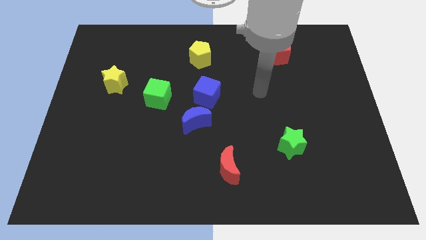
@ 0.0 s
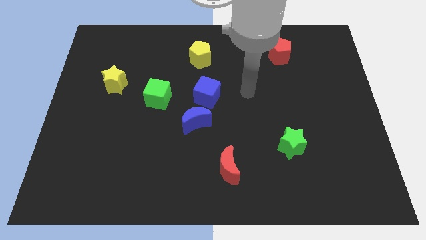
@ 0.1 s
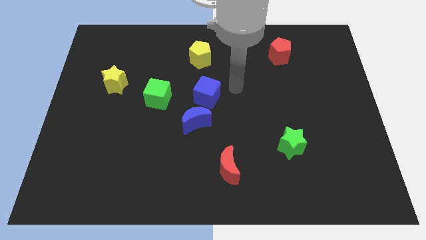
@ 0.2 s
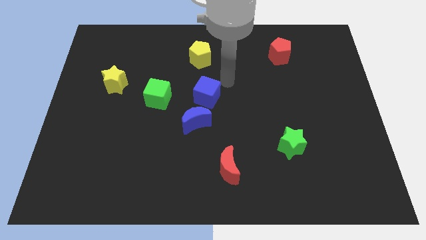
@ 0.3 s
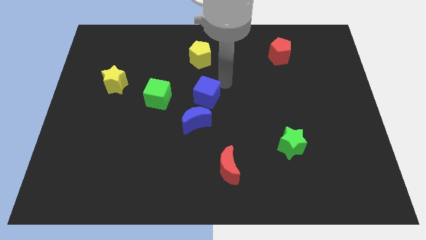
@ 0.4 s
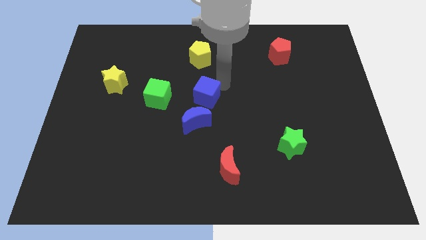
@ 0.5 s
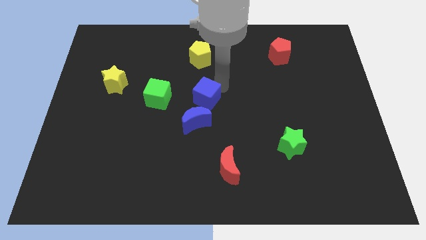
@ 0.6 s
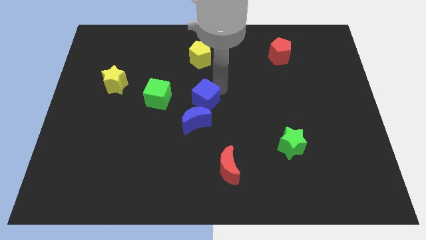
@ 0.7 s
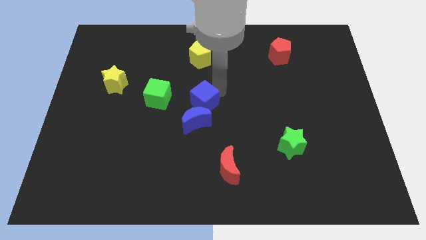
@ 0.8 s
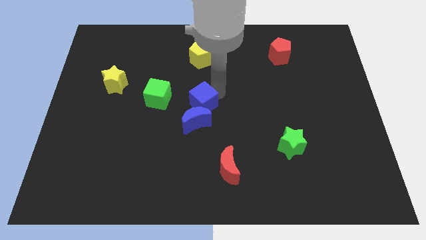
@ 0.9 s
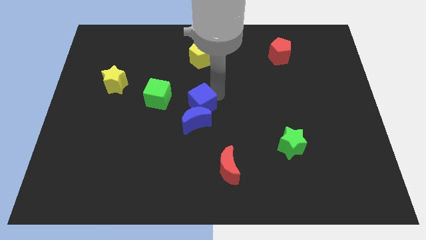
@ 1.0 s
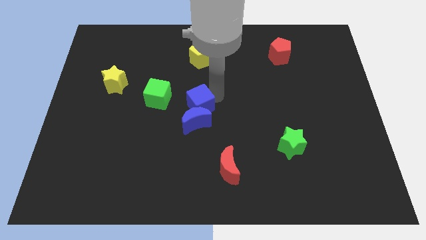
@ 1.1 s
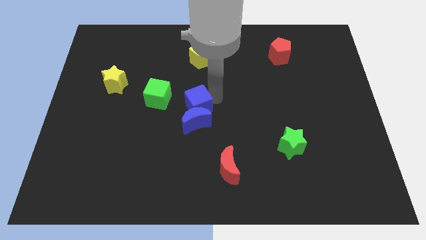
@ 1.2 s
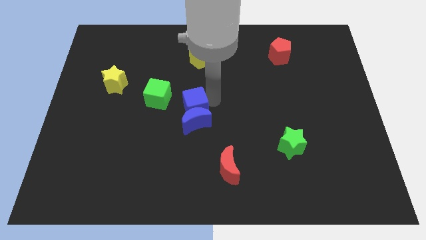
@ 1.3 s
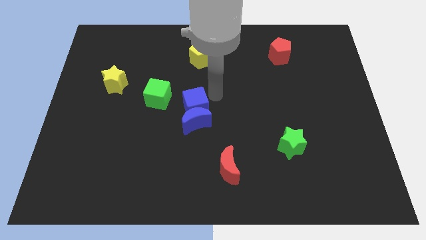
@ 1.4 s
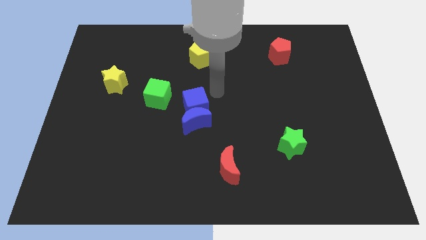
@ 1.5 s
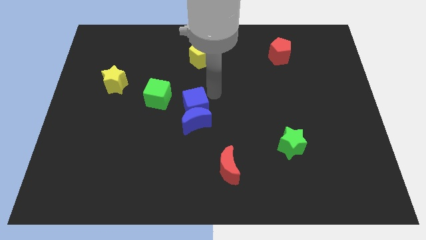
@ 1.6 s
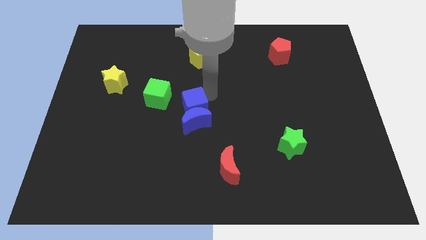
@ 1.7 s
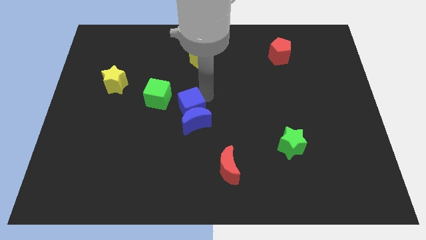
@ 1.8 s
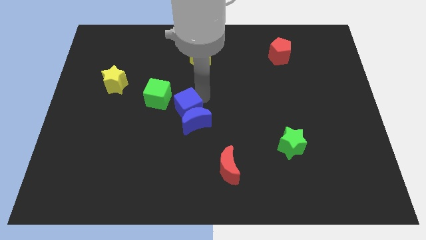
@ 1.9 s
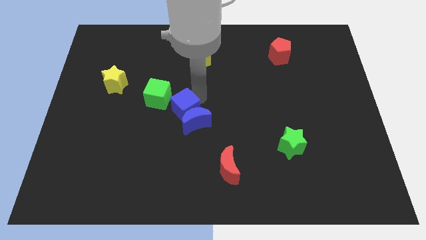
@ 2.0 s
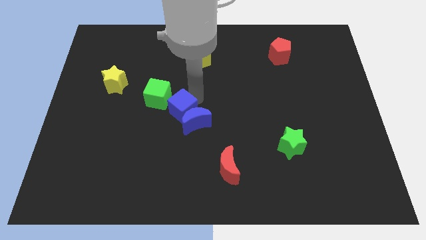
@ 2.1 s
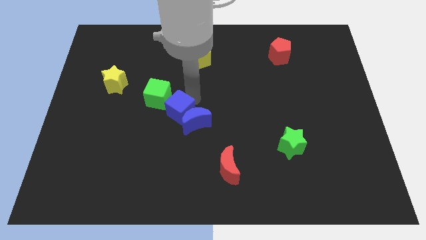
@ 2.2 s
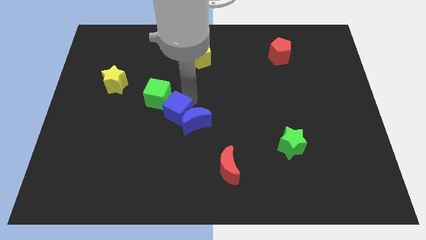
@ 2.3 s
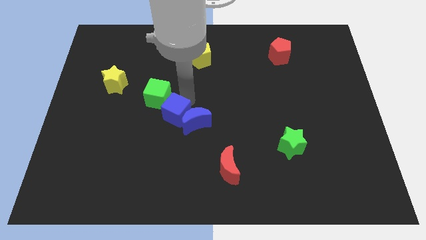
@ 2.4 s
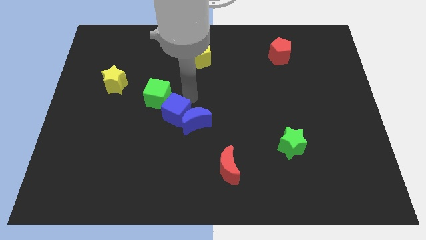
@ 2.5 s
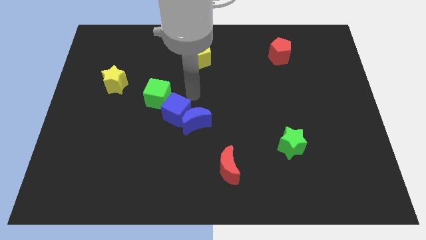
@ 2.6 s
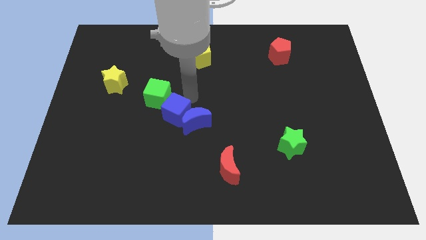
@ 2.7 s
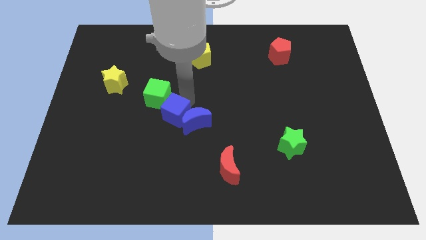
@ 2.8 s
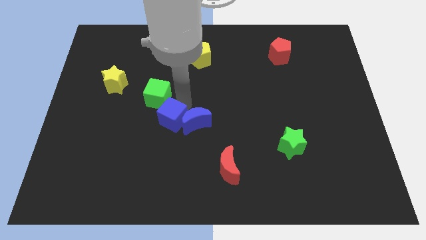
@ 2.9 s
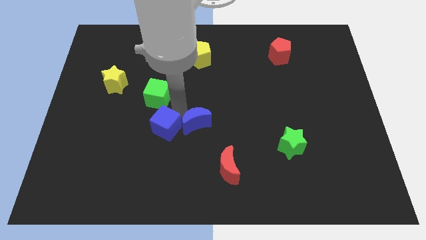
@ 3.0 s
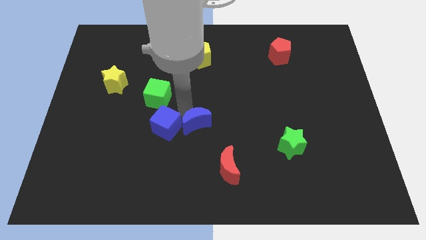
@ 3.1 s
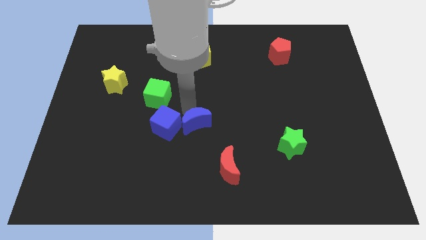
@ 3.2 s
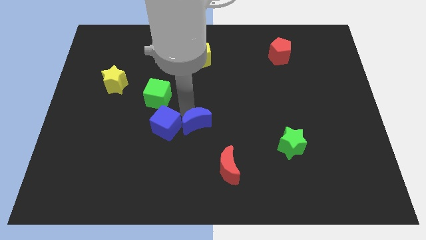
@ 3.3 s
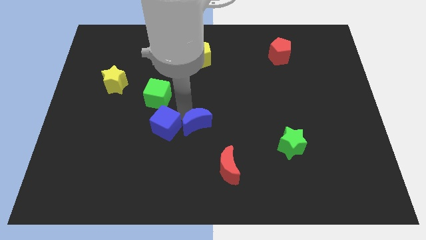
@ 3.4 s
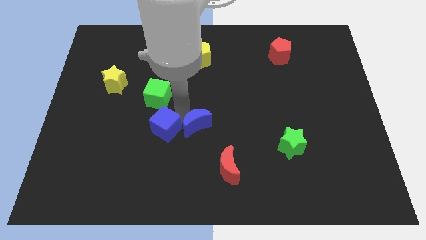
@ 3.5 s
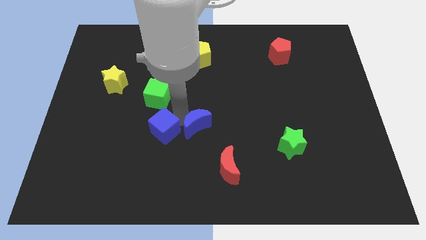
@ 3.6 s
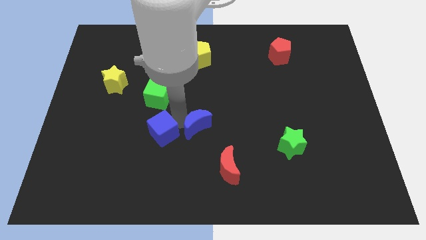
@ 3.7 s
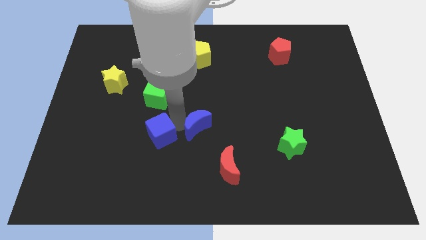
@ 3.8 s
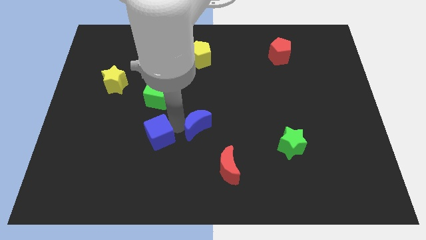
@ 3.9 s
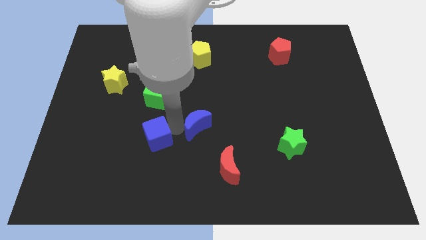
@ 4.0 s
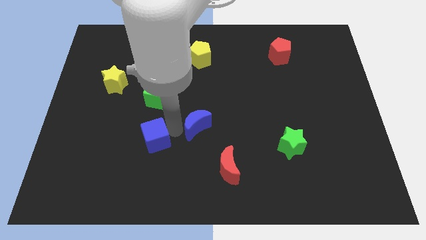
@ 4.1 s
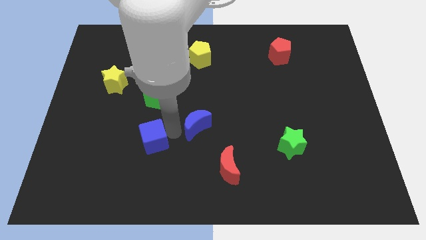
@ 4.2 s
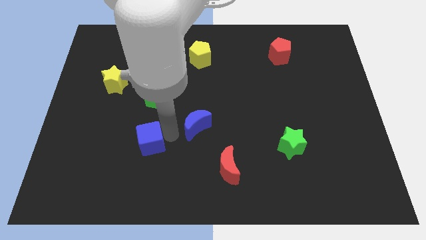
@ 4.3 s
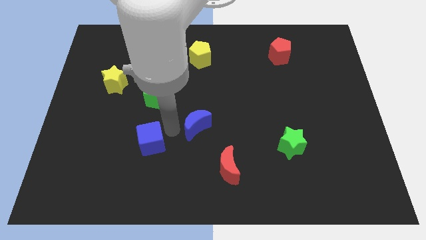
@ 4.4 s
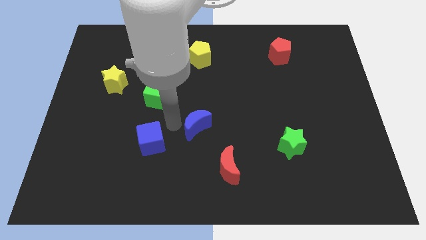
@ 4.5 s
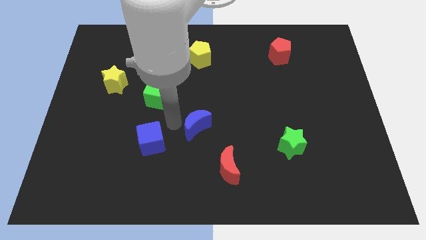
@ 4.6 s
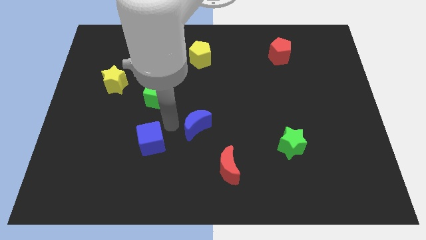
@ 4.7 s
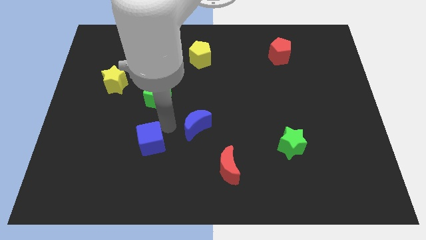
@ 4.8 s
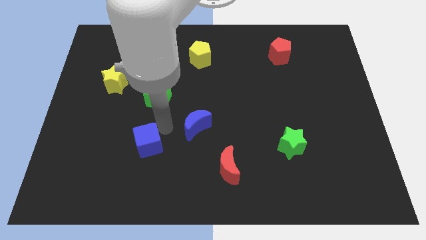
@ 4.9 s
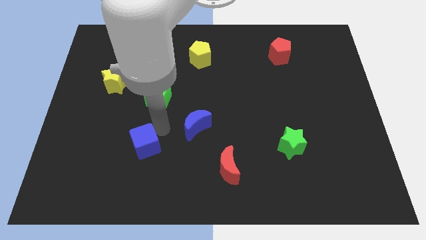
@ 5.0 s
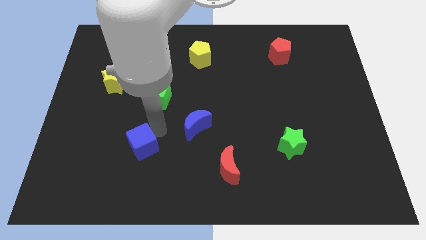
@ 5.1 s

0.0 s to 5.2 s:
slide the blue cube down and then to the left

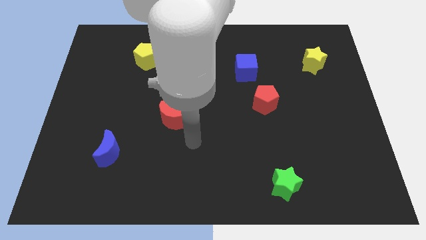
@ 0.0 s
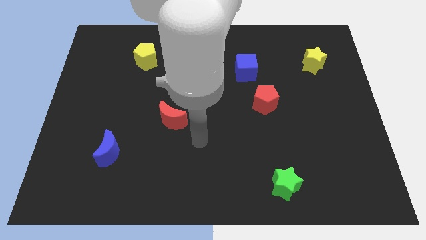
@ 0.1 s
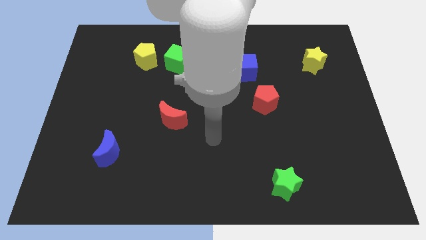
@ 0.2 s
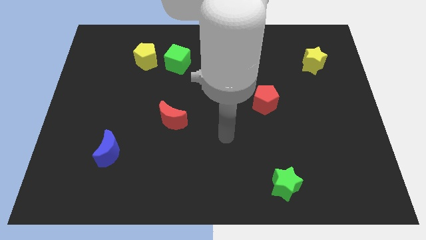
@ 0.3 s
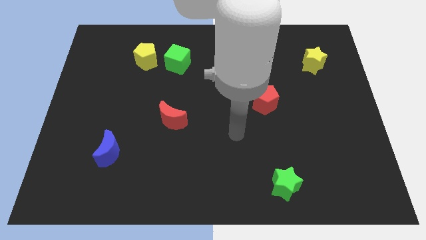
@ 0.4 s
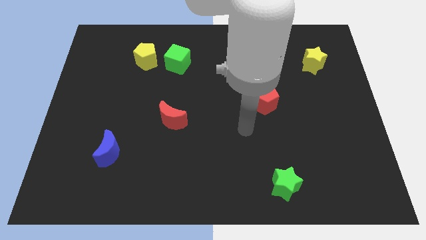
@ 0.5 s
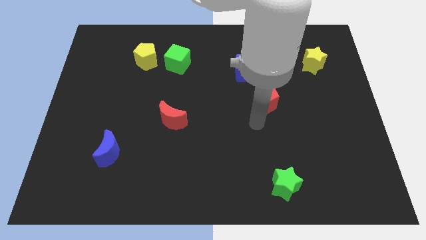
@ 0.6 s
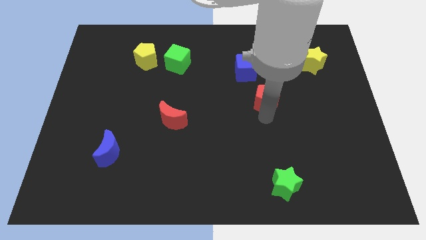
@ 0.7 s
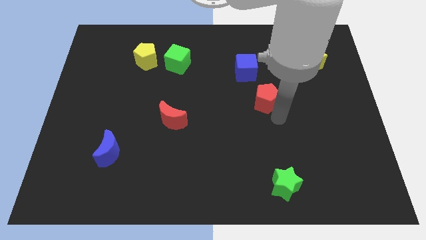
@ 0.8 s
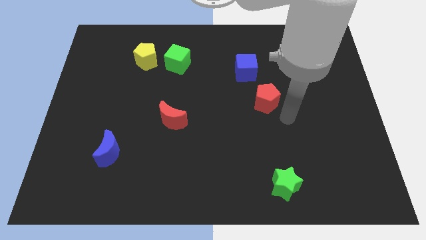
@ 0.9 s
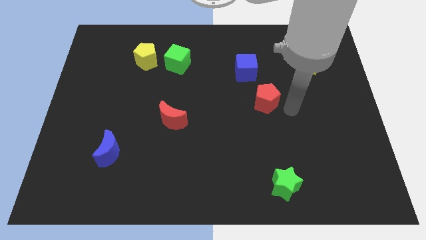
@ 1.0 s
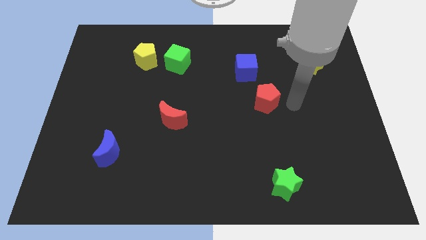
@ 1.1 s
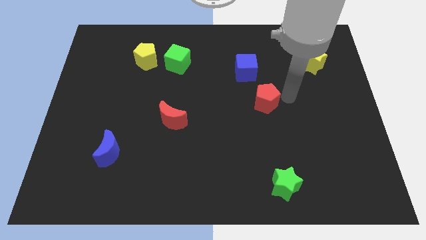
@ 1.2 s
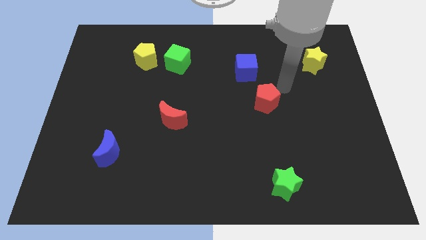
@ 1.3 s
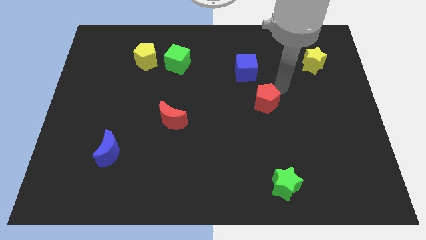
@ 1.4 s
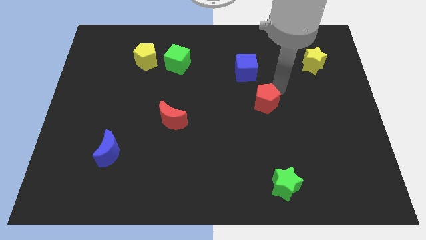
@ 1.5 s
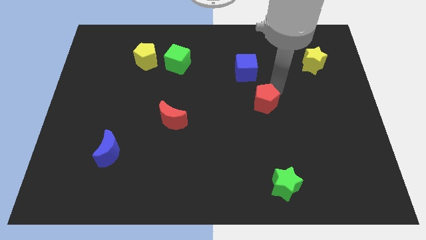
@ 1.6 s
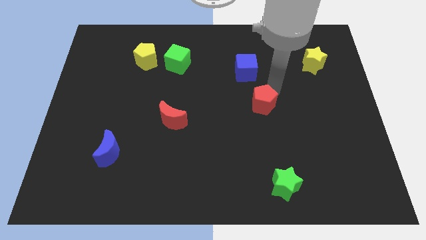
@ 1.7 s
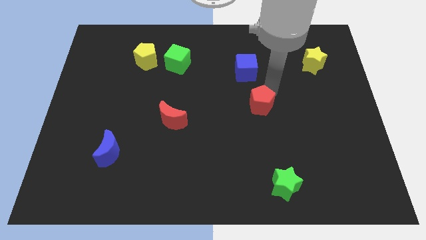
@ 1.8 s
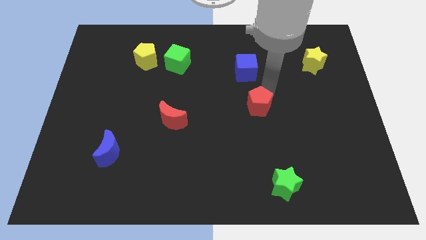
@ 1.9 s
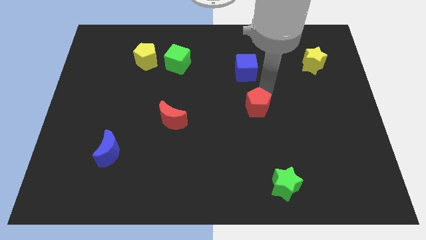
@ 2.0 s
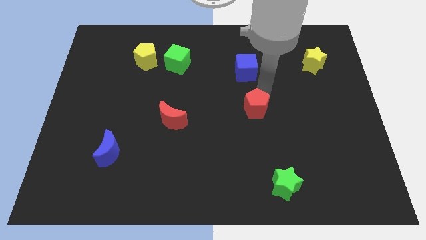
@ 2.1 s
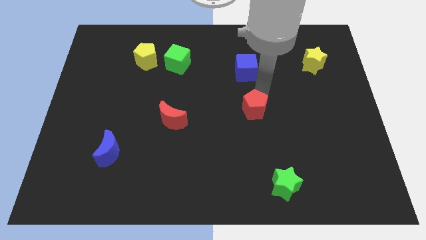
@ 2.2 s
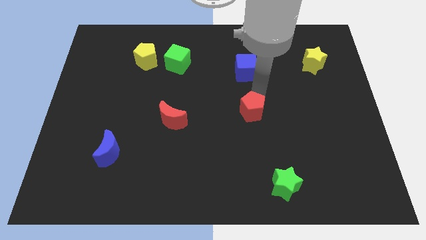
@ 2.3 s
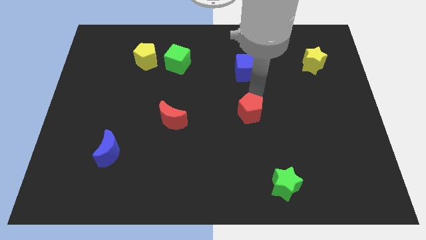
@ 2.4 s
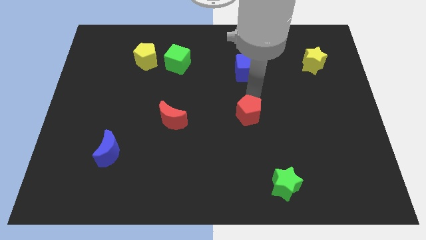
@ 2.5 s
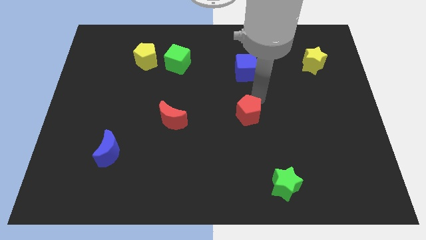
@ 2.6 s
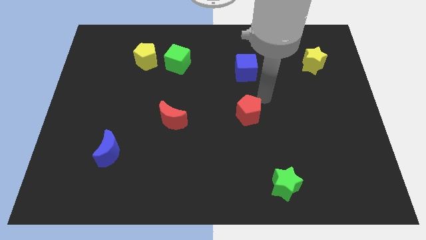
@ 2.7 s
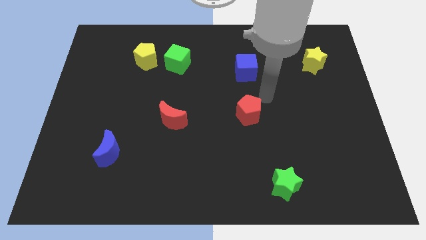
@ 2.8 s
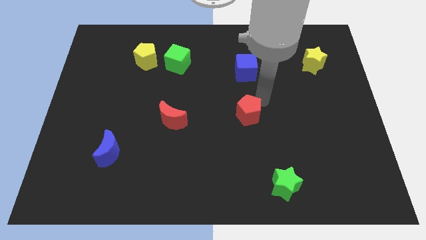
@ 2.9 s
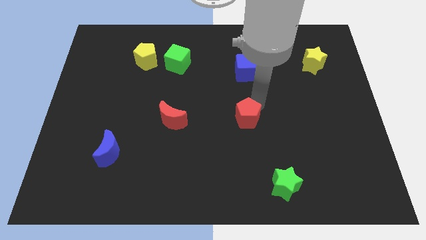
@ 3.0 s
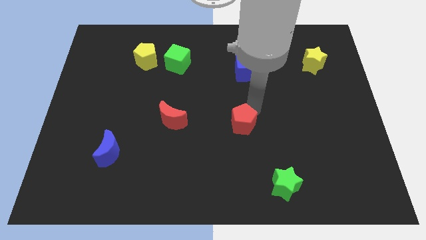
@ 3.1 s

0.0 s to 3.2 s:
push the red pentagon a bit downwards and then left
